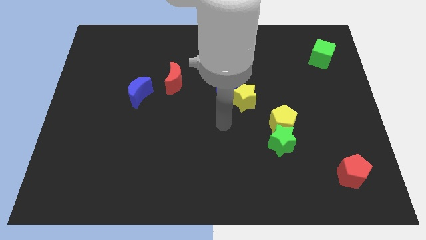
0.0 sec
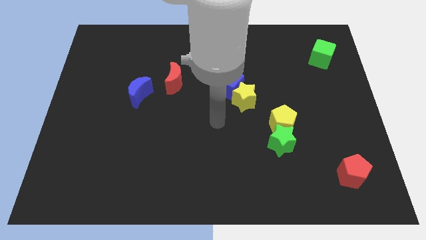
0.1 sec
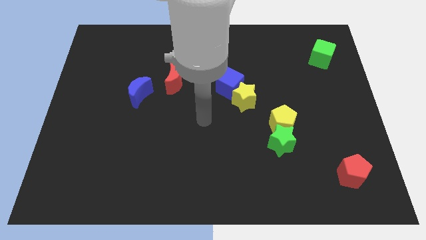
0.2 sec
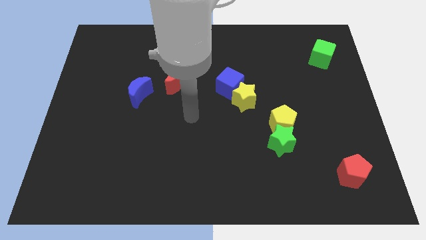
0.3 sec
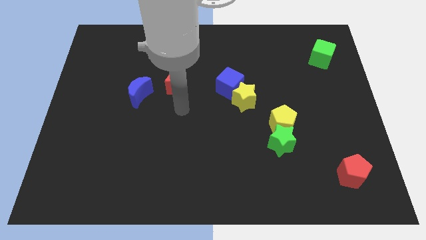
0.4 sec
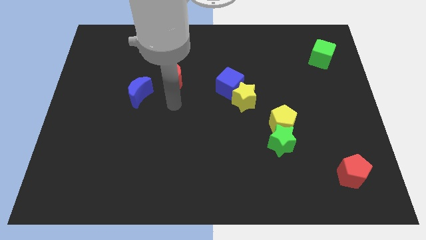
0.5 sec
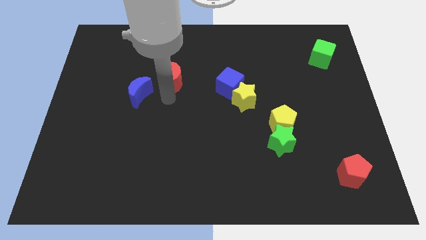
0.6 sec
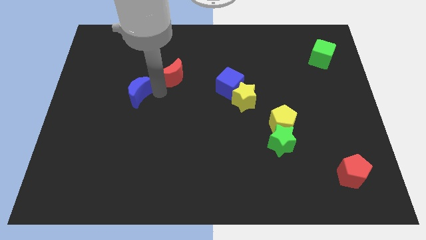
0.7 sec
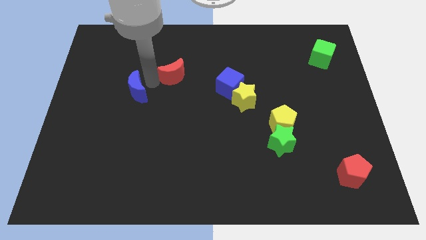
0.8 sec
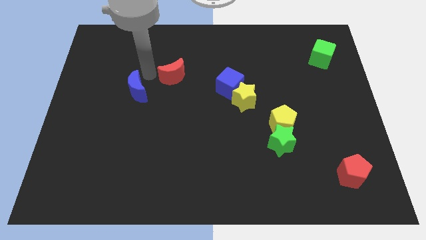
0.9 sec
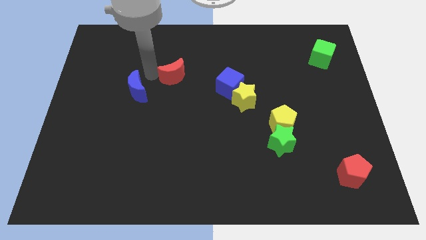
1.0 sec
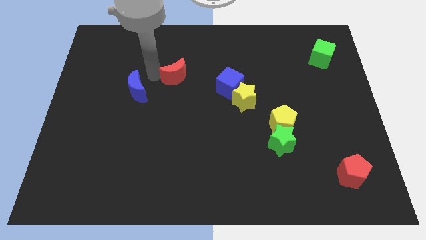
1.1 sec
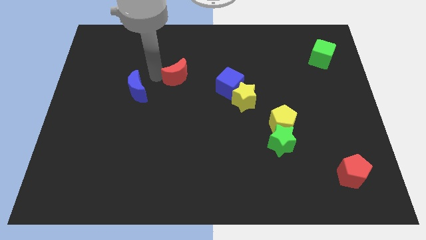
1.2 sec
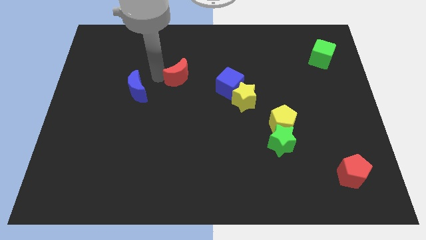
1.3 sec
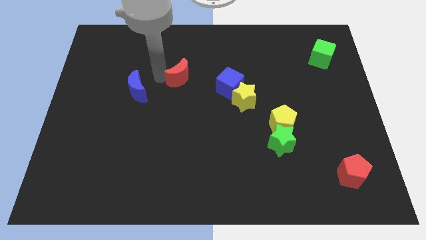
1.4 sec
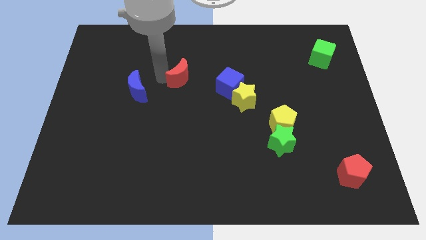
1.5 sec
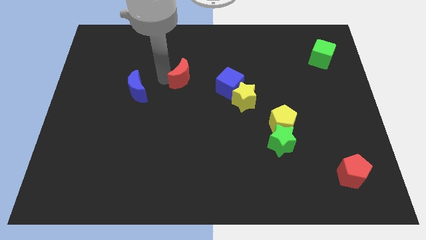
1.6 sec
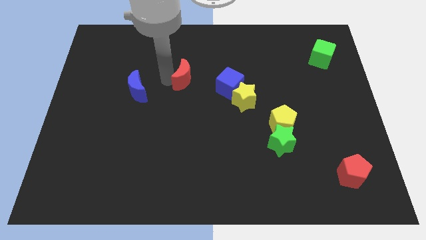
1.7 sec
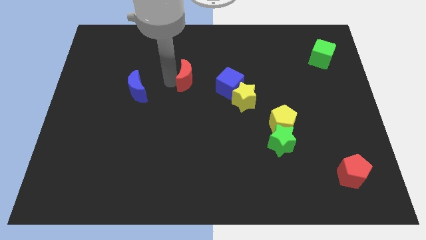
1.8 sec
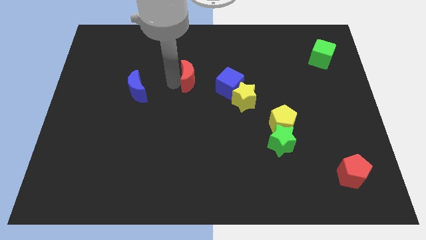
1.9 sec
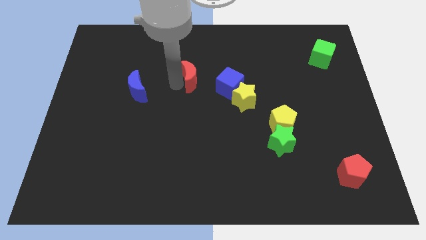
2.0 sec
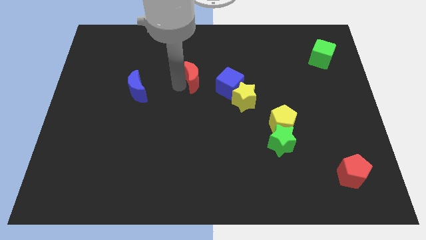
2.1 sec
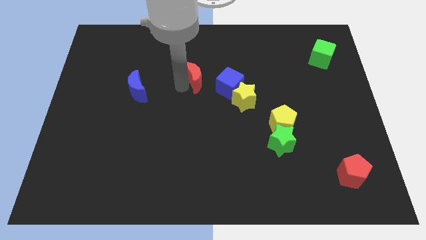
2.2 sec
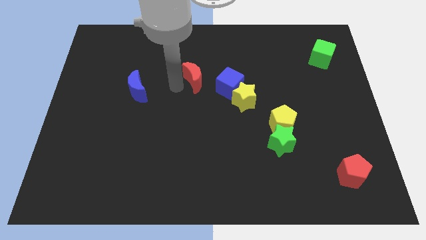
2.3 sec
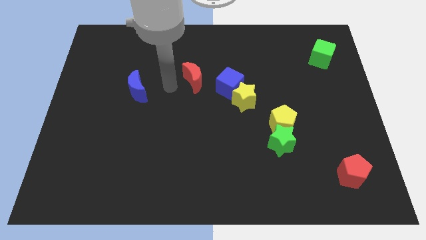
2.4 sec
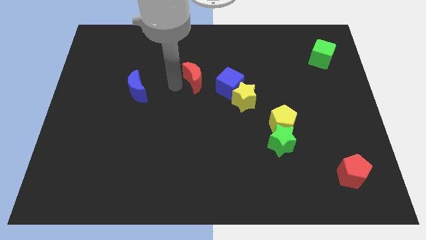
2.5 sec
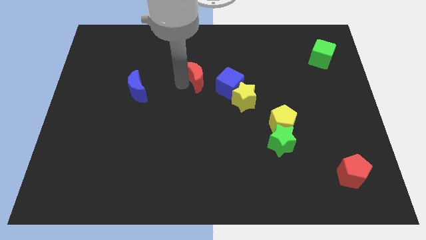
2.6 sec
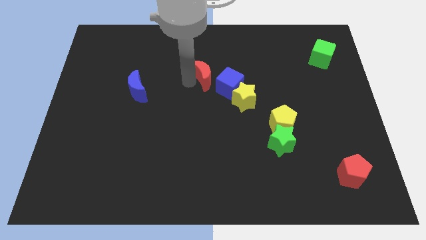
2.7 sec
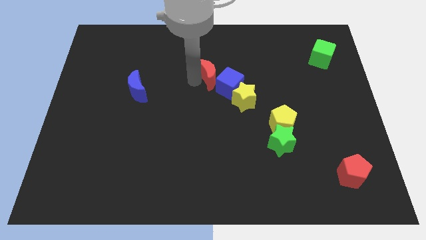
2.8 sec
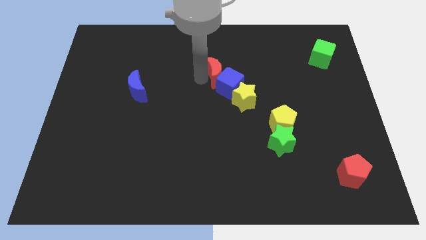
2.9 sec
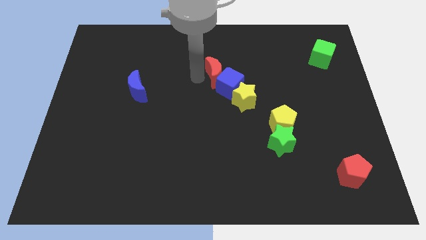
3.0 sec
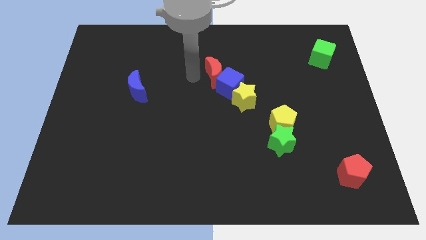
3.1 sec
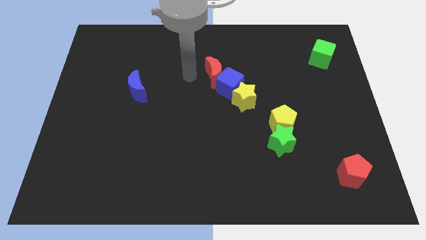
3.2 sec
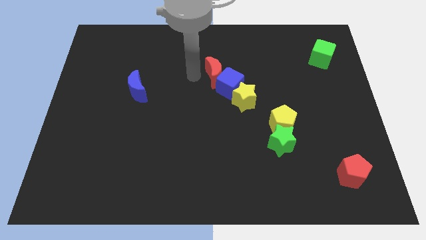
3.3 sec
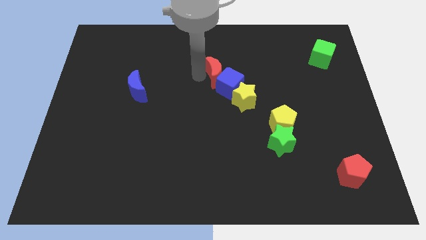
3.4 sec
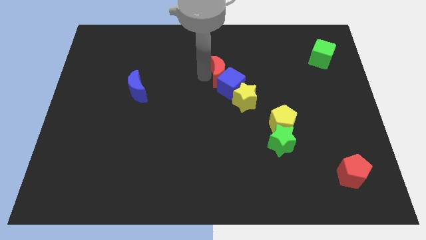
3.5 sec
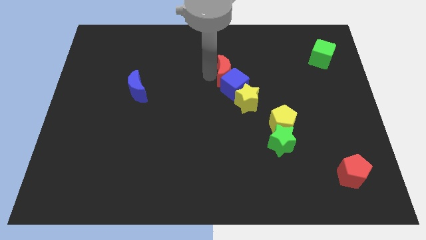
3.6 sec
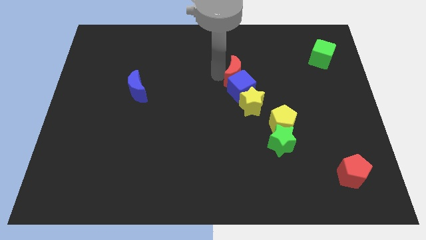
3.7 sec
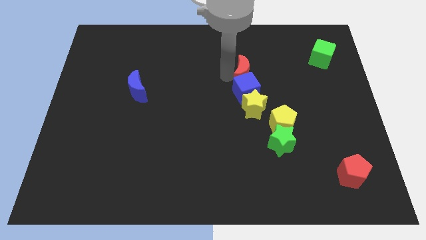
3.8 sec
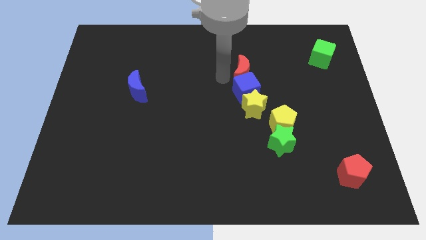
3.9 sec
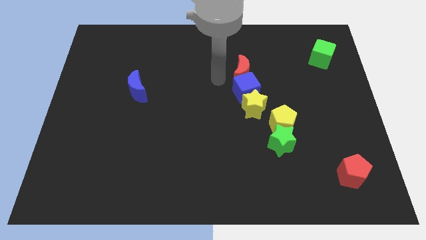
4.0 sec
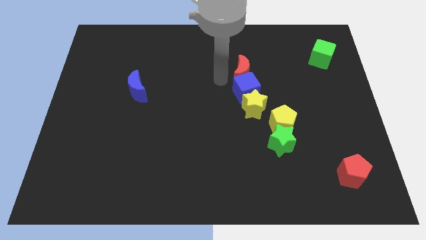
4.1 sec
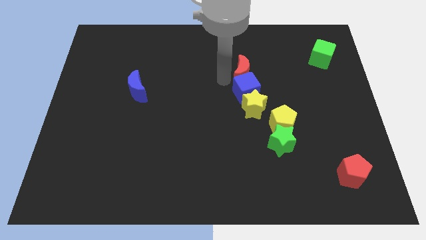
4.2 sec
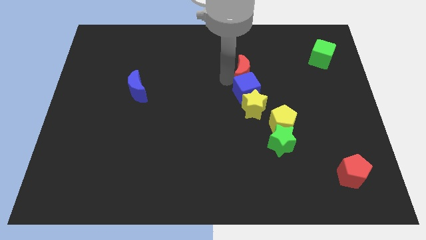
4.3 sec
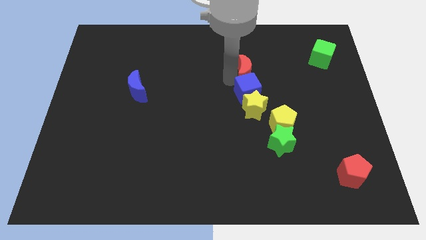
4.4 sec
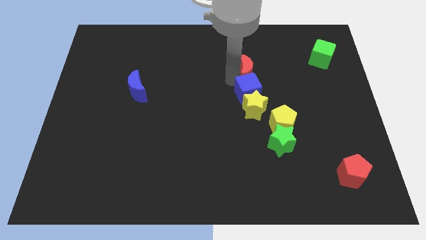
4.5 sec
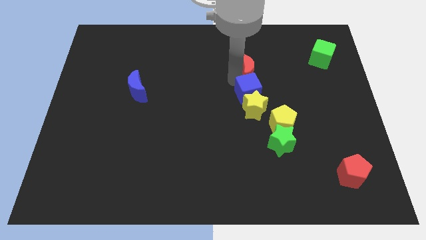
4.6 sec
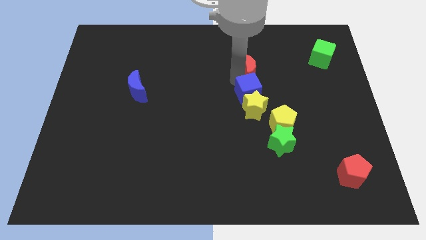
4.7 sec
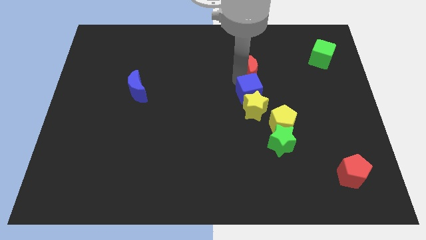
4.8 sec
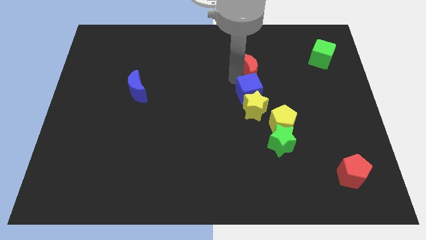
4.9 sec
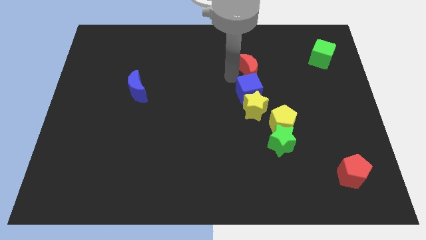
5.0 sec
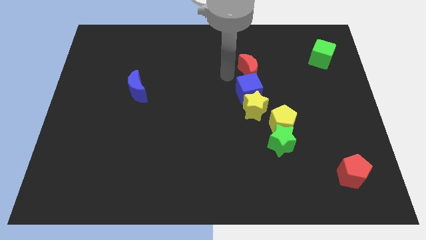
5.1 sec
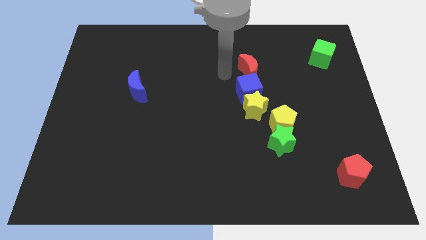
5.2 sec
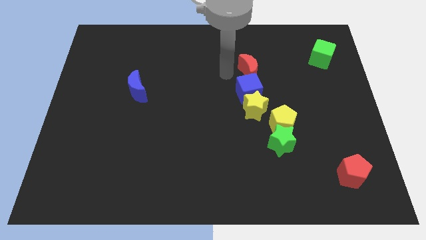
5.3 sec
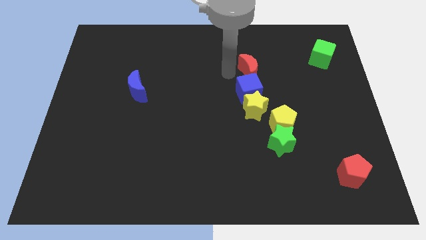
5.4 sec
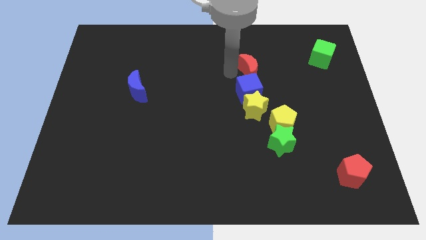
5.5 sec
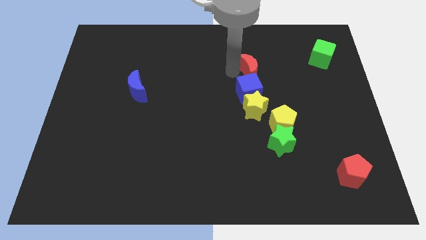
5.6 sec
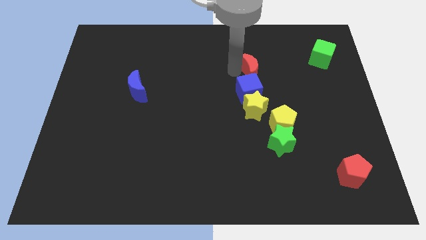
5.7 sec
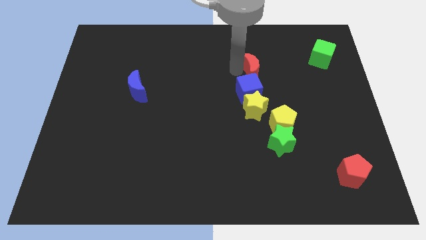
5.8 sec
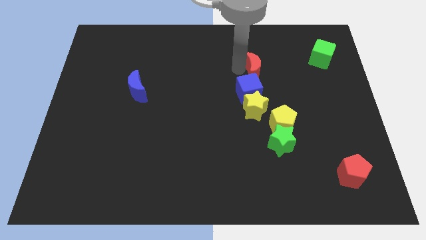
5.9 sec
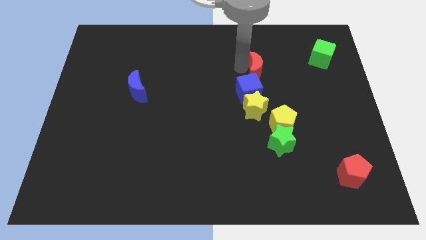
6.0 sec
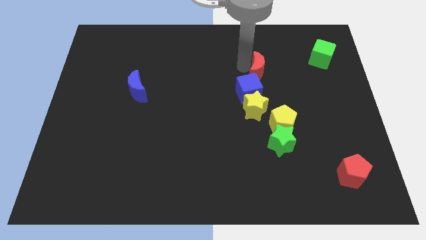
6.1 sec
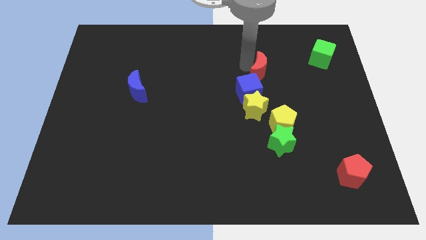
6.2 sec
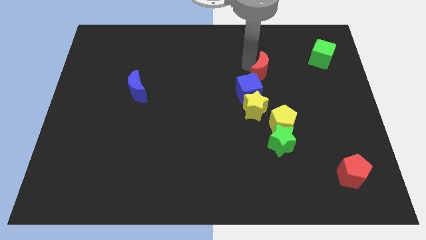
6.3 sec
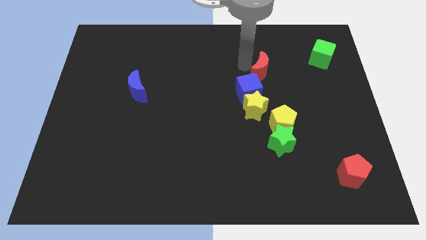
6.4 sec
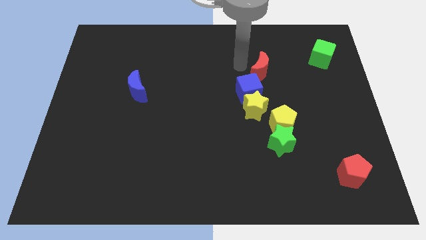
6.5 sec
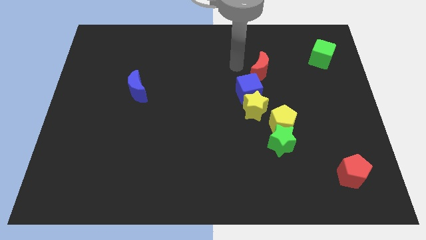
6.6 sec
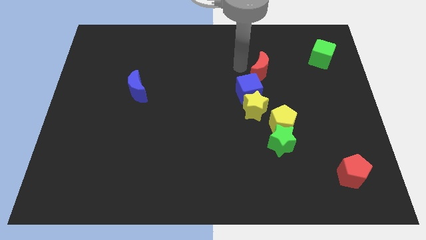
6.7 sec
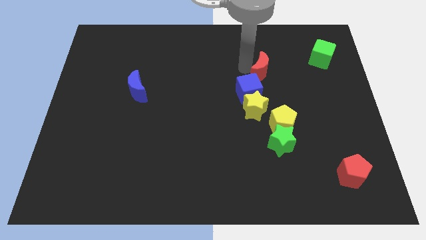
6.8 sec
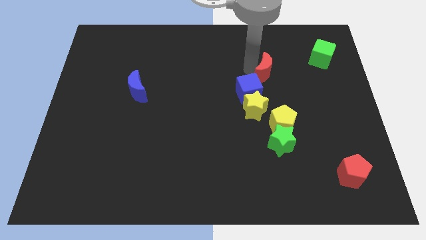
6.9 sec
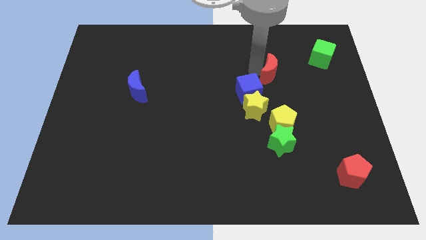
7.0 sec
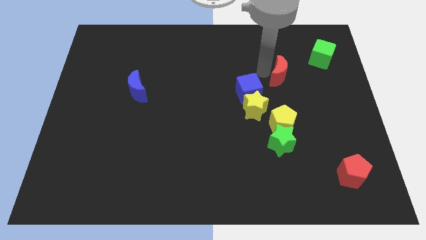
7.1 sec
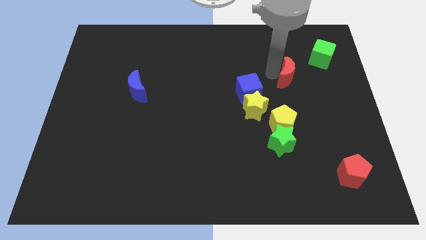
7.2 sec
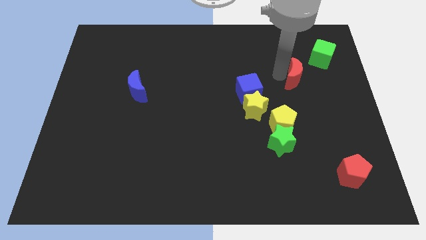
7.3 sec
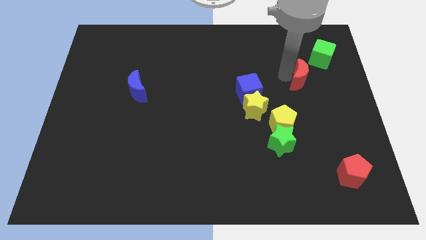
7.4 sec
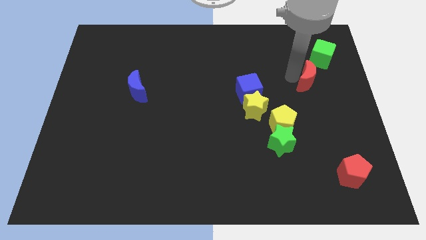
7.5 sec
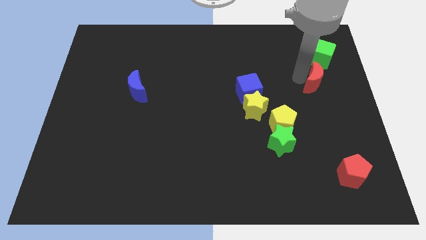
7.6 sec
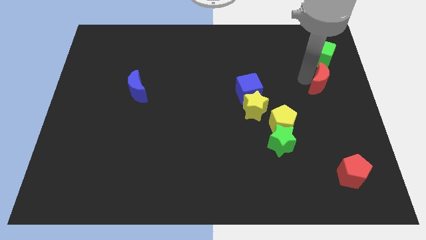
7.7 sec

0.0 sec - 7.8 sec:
slide the red moon to the center right
